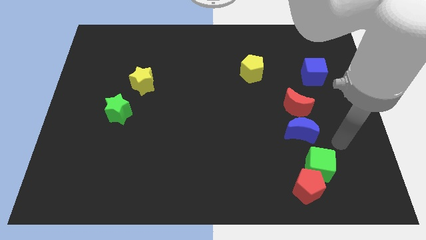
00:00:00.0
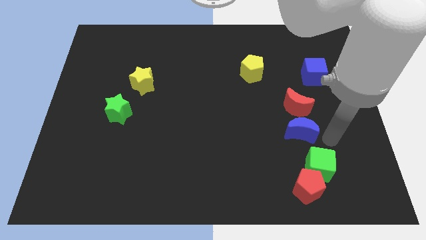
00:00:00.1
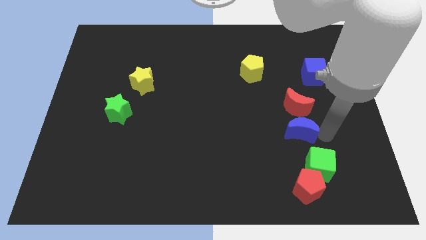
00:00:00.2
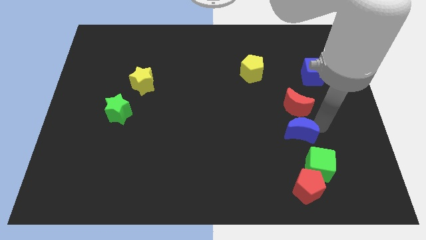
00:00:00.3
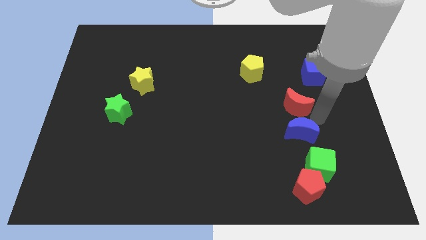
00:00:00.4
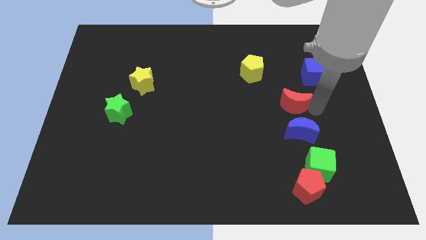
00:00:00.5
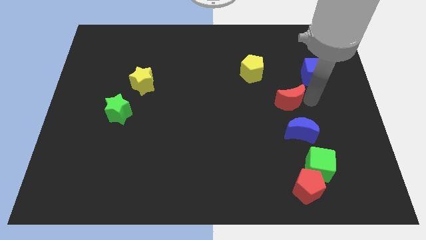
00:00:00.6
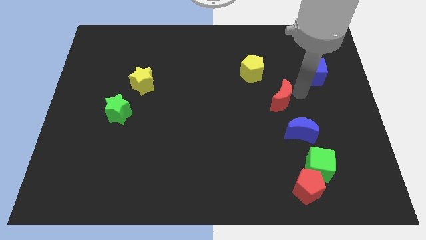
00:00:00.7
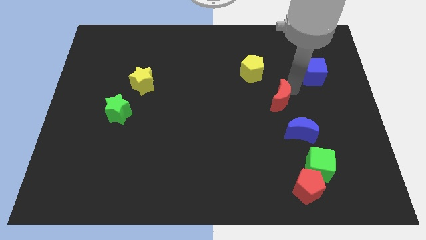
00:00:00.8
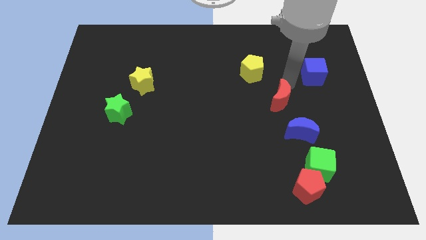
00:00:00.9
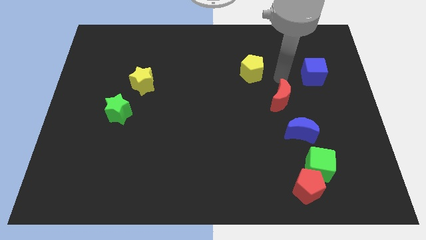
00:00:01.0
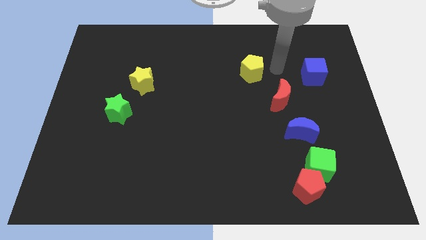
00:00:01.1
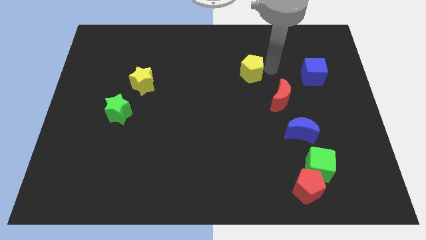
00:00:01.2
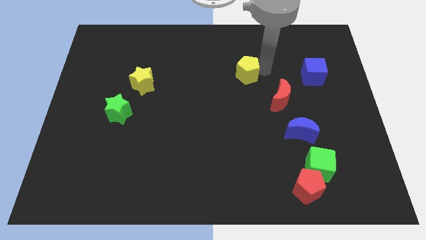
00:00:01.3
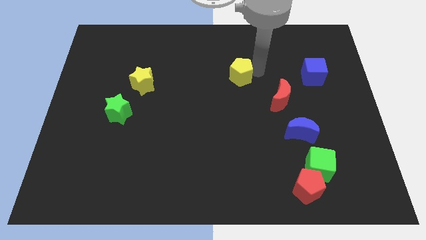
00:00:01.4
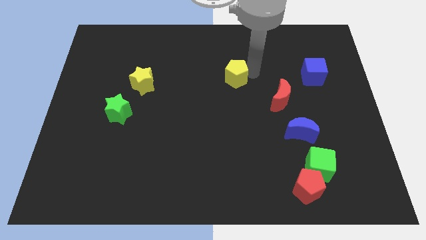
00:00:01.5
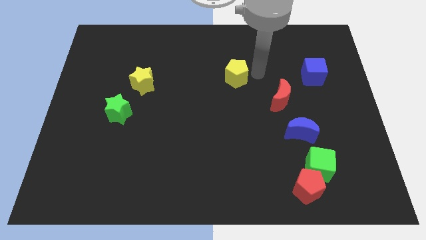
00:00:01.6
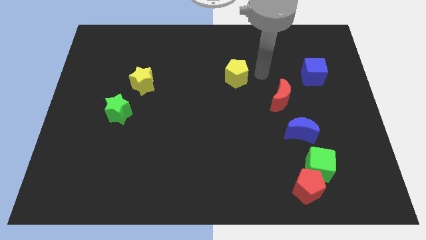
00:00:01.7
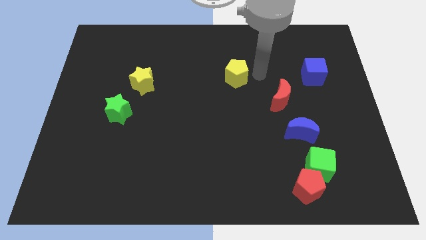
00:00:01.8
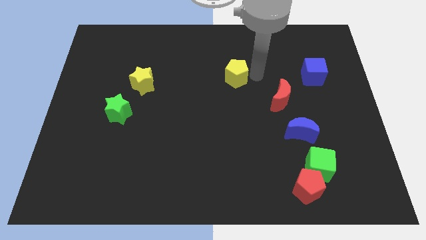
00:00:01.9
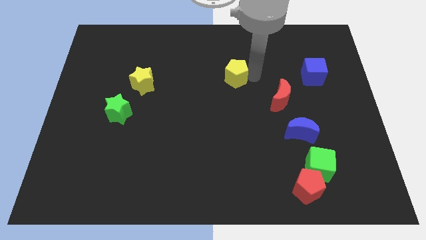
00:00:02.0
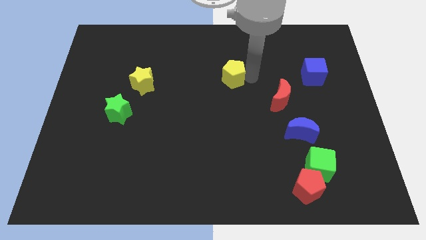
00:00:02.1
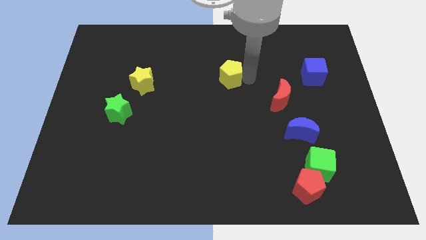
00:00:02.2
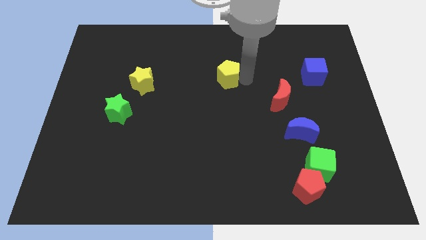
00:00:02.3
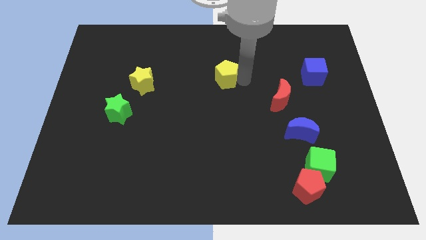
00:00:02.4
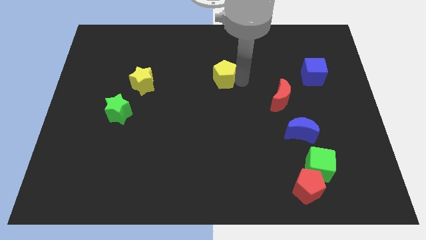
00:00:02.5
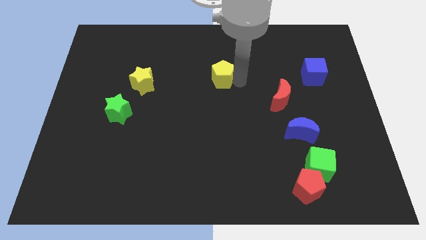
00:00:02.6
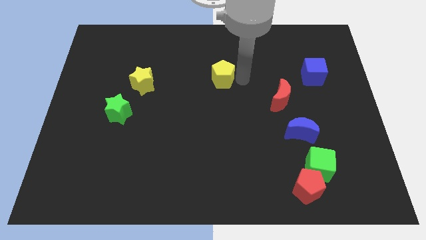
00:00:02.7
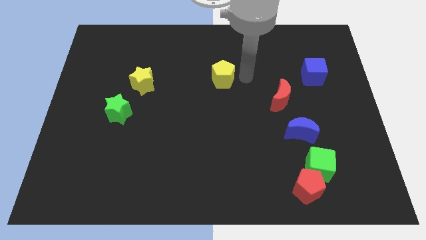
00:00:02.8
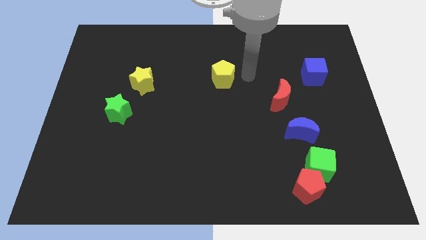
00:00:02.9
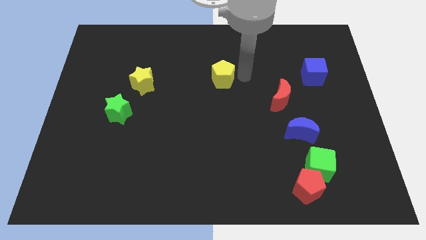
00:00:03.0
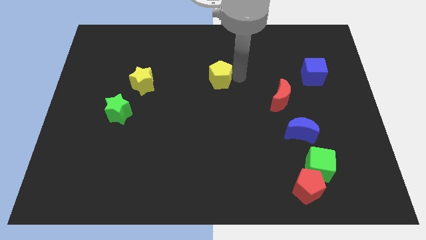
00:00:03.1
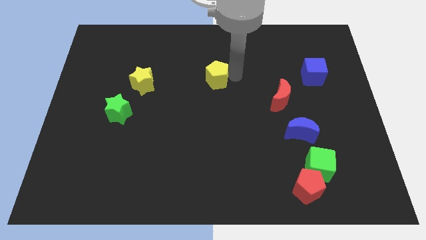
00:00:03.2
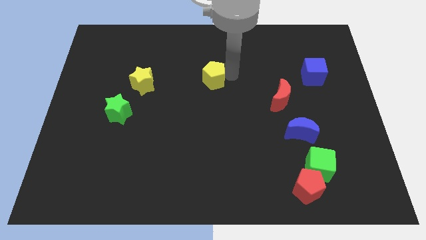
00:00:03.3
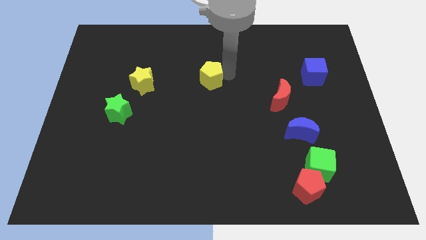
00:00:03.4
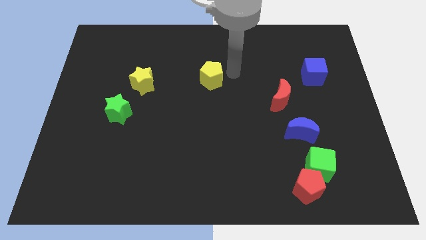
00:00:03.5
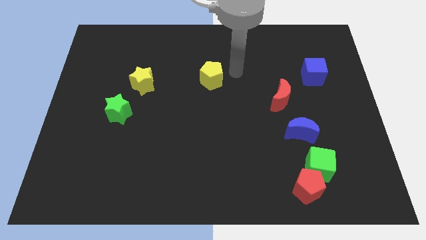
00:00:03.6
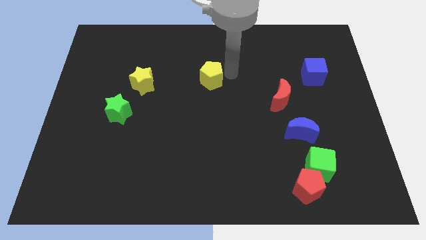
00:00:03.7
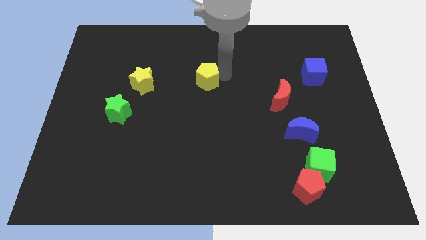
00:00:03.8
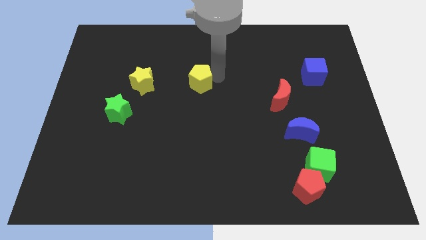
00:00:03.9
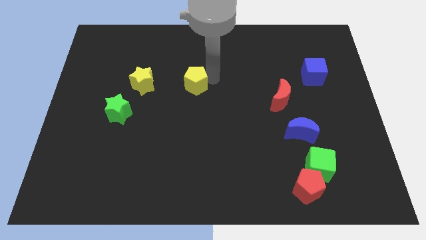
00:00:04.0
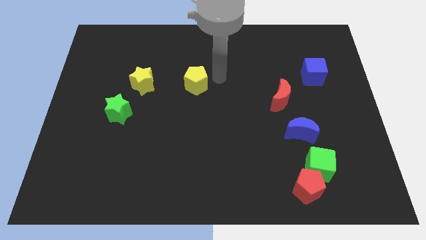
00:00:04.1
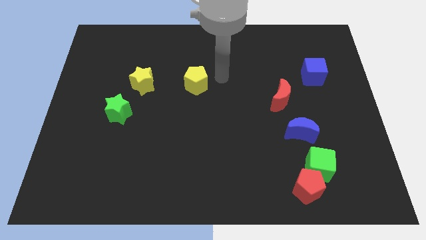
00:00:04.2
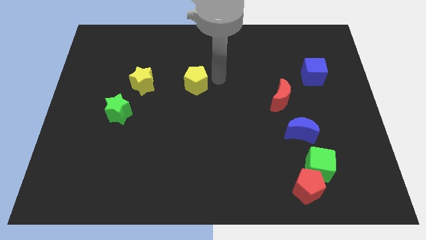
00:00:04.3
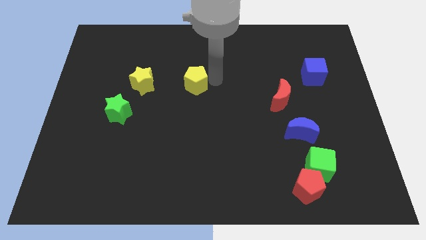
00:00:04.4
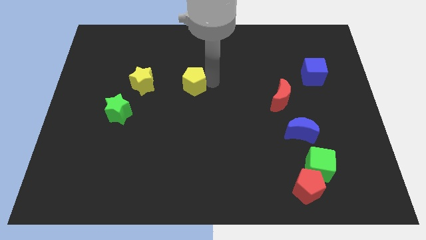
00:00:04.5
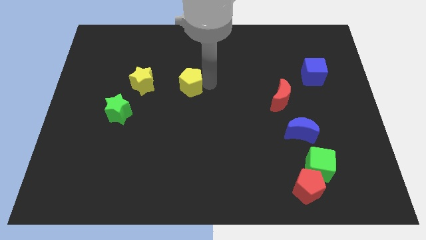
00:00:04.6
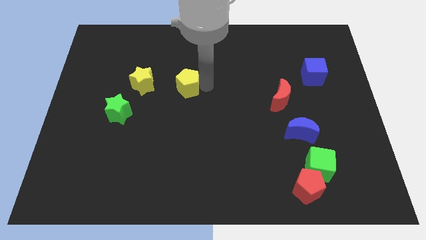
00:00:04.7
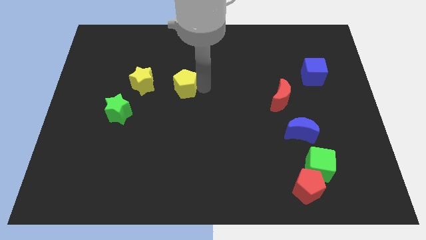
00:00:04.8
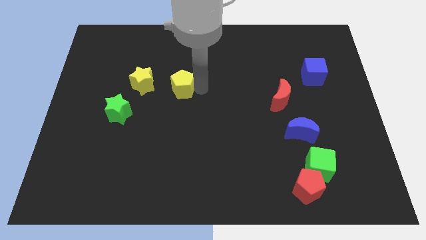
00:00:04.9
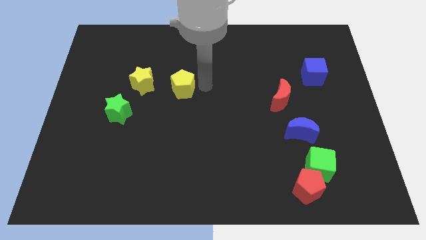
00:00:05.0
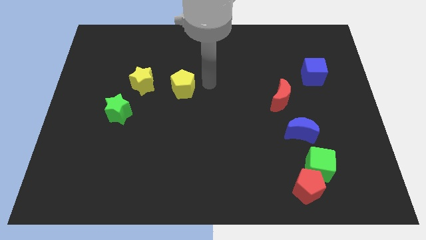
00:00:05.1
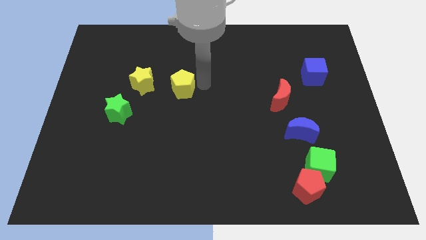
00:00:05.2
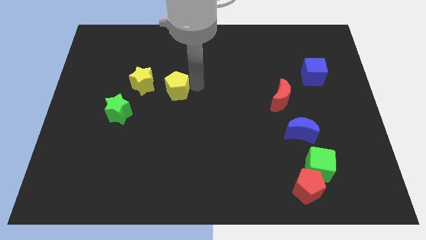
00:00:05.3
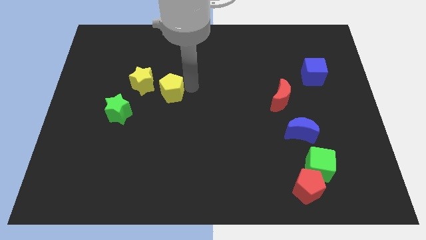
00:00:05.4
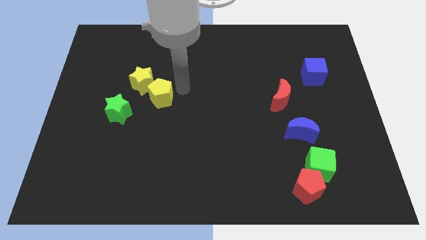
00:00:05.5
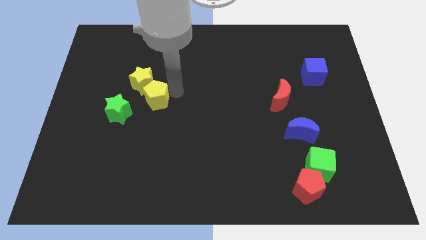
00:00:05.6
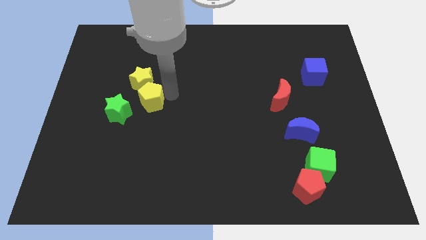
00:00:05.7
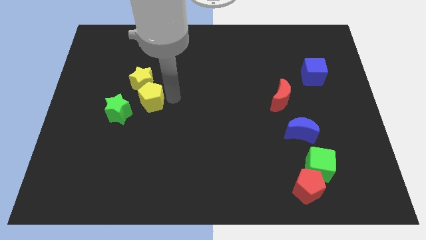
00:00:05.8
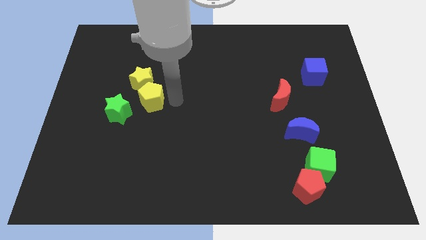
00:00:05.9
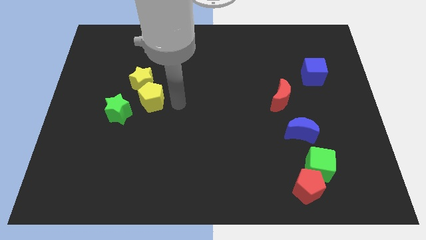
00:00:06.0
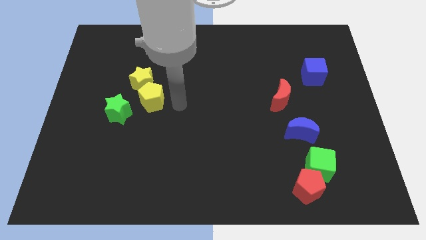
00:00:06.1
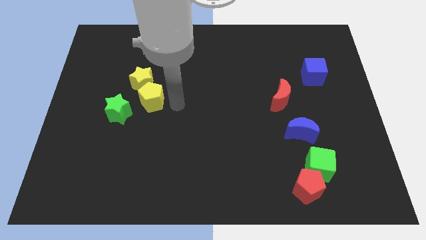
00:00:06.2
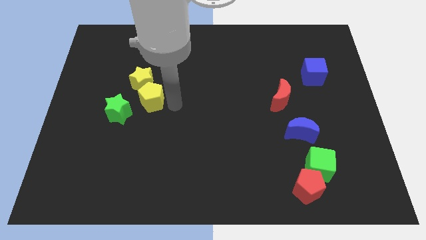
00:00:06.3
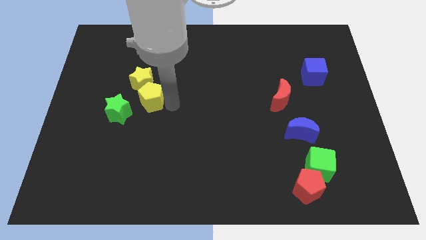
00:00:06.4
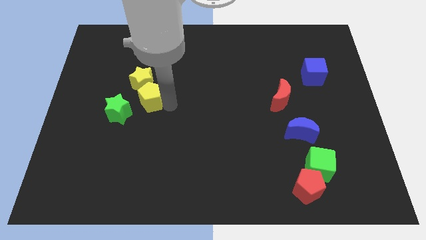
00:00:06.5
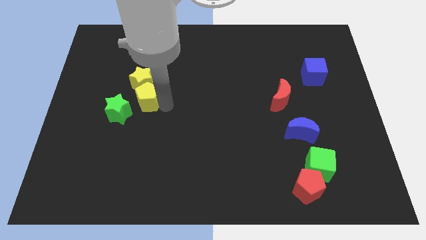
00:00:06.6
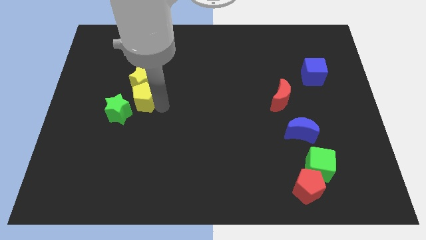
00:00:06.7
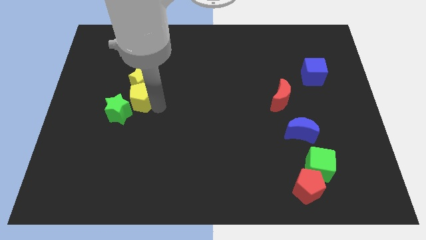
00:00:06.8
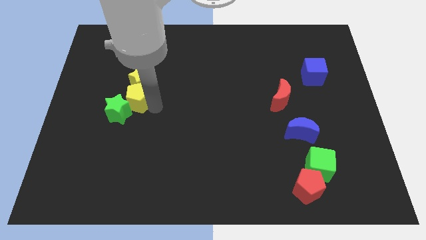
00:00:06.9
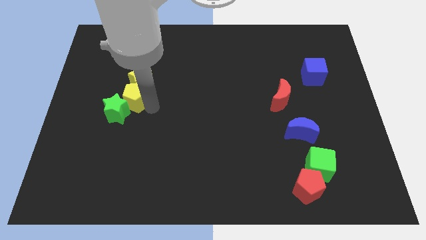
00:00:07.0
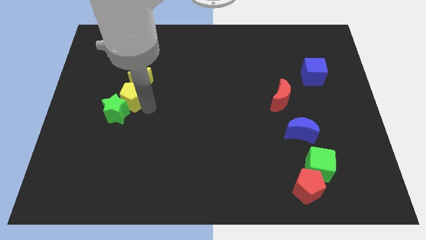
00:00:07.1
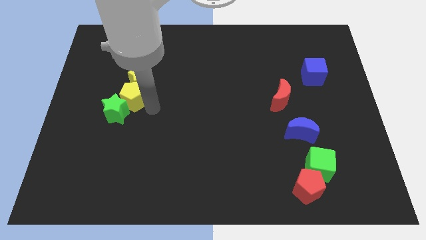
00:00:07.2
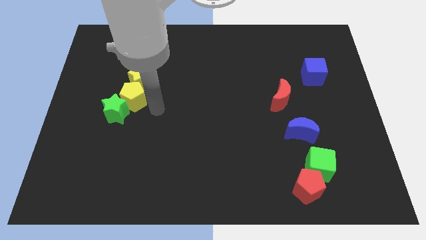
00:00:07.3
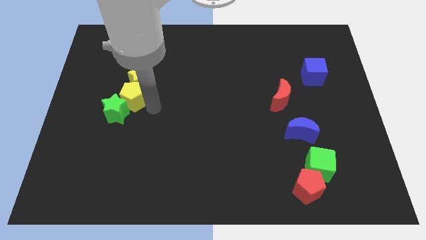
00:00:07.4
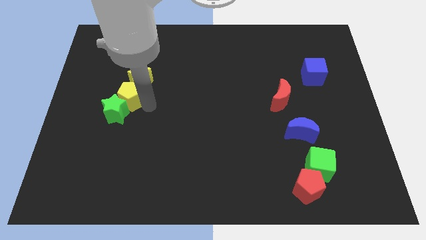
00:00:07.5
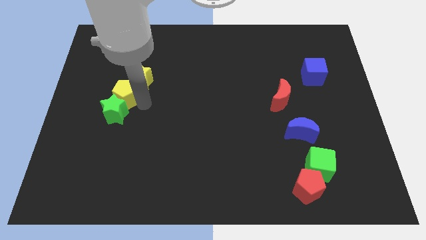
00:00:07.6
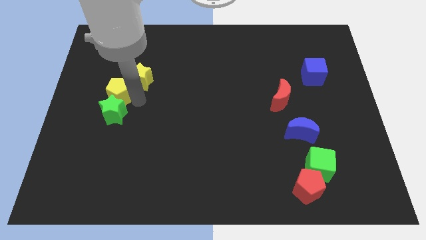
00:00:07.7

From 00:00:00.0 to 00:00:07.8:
move the yellow pentagon diagonally up and to the left of the green star
